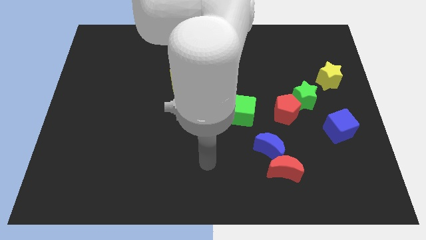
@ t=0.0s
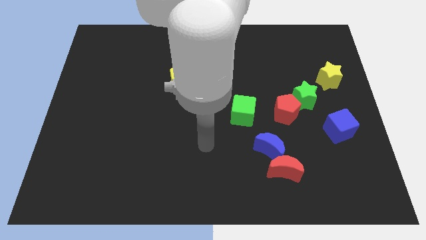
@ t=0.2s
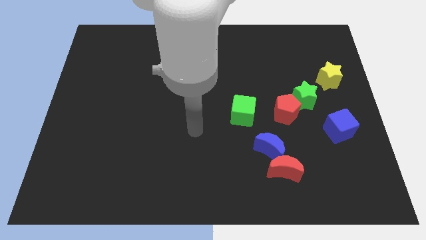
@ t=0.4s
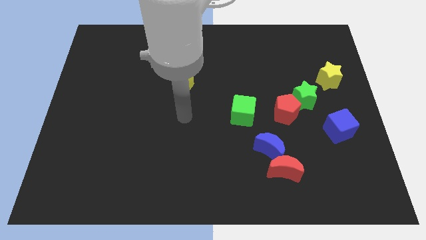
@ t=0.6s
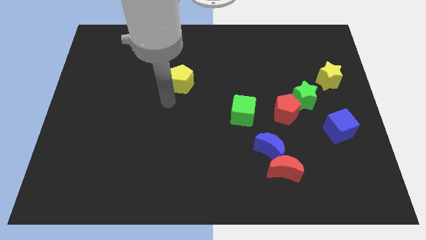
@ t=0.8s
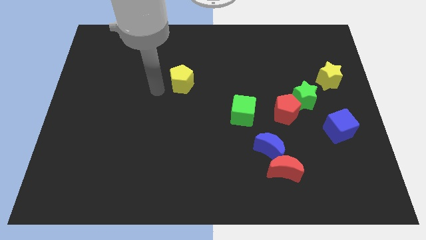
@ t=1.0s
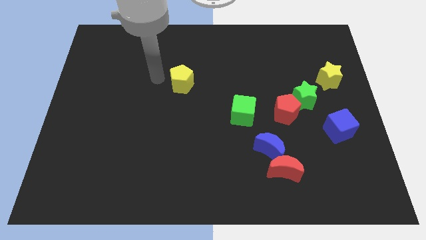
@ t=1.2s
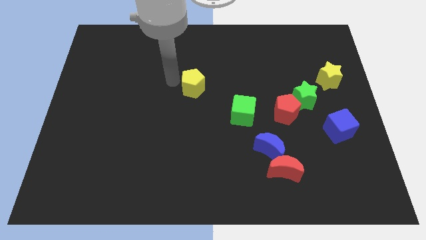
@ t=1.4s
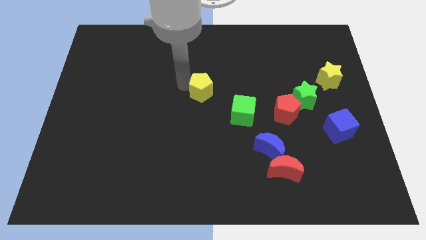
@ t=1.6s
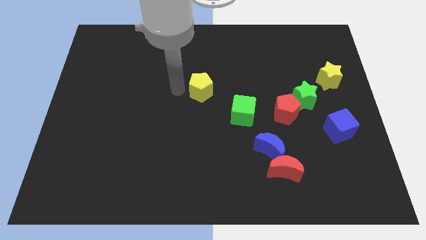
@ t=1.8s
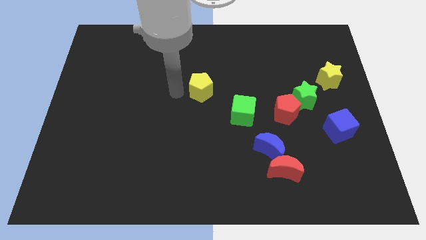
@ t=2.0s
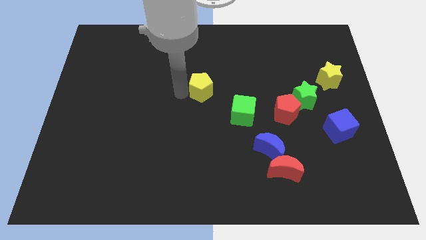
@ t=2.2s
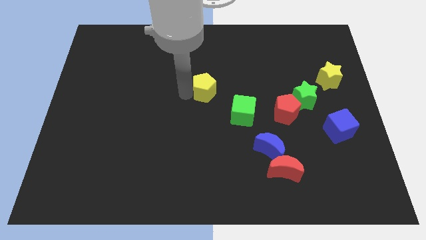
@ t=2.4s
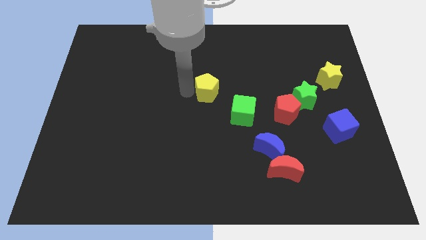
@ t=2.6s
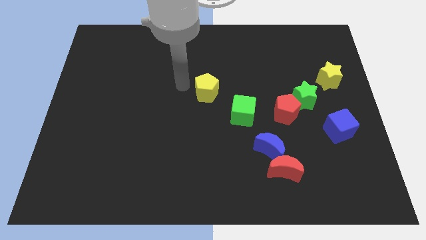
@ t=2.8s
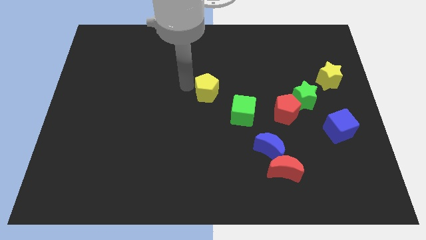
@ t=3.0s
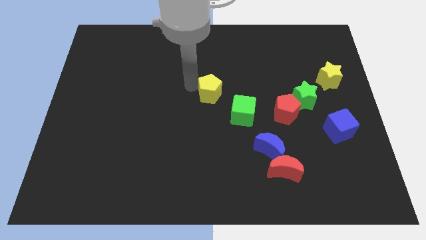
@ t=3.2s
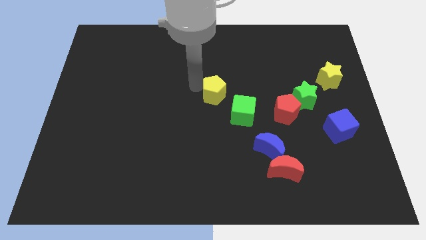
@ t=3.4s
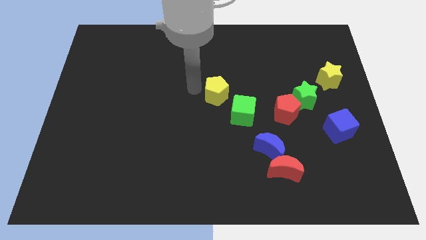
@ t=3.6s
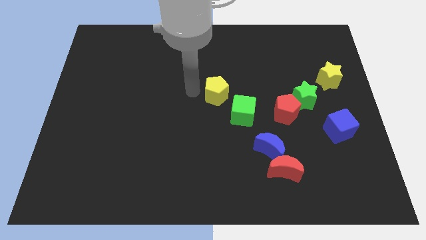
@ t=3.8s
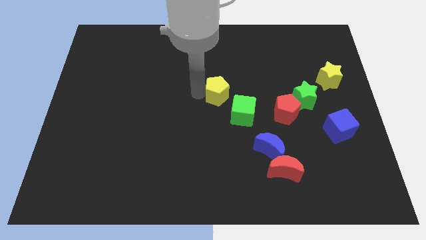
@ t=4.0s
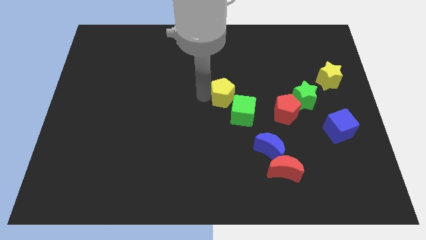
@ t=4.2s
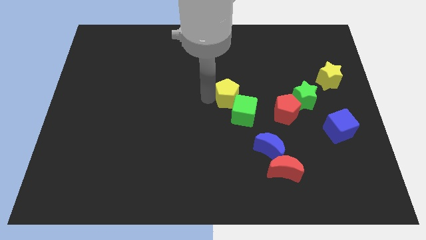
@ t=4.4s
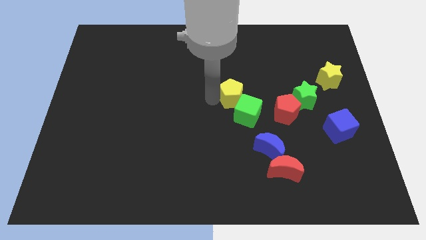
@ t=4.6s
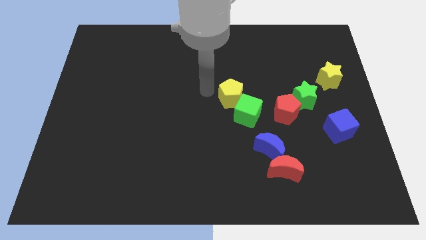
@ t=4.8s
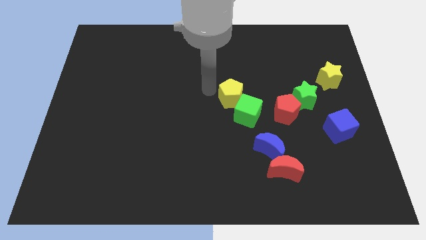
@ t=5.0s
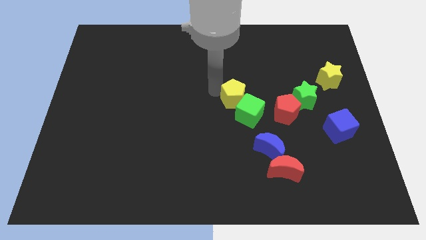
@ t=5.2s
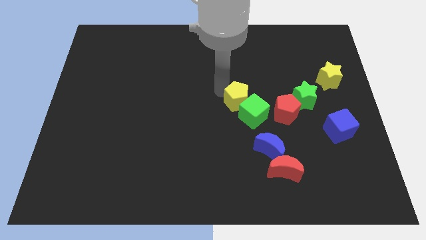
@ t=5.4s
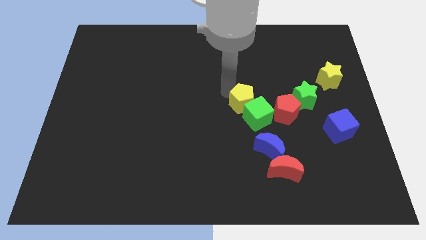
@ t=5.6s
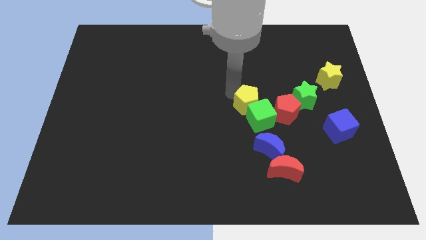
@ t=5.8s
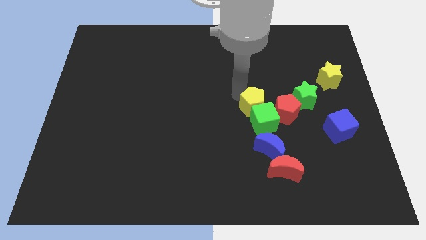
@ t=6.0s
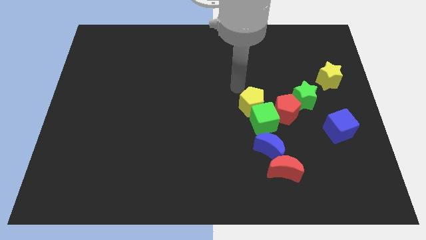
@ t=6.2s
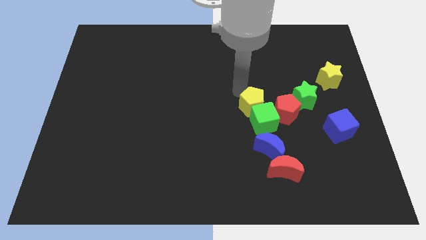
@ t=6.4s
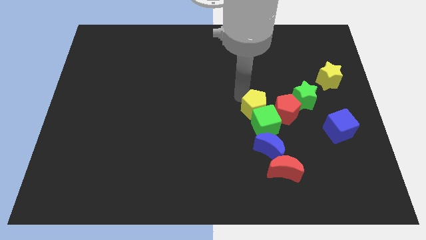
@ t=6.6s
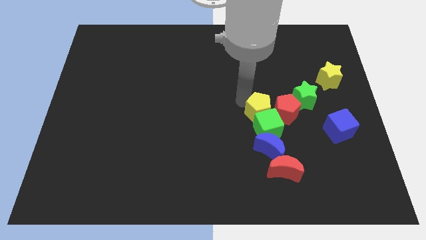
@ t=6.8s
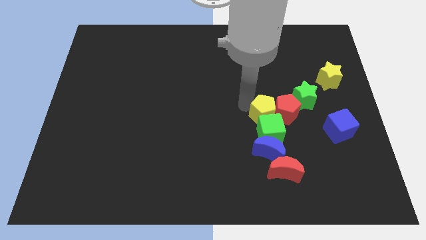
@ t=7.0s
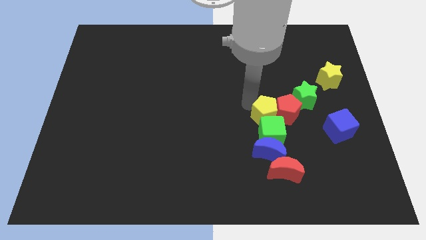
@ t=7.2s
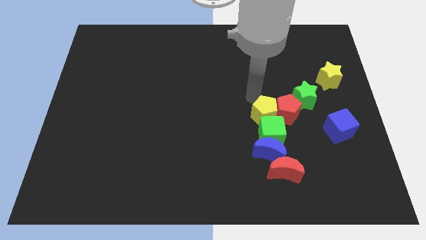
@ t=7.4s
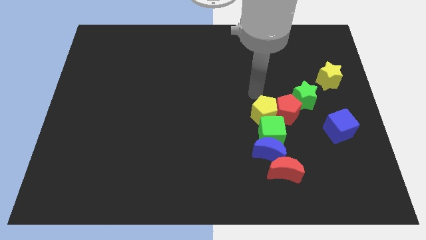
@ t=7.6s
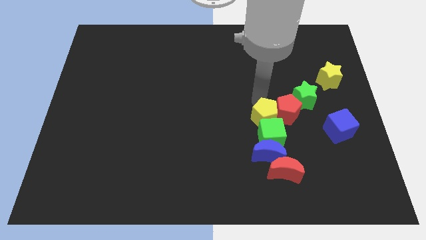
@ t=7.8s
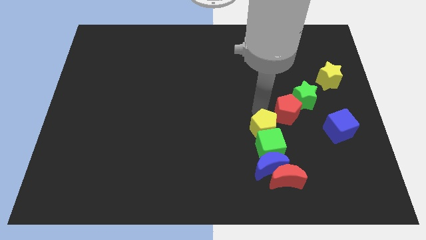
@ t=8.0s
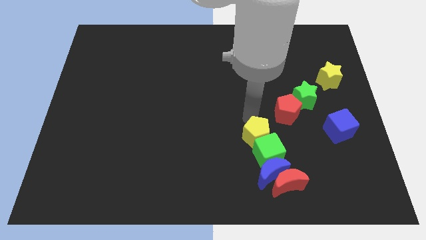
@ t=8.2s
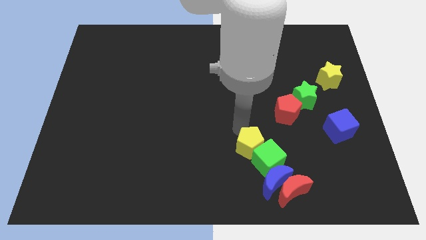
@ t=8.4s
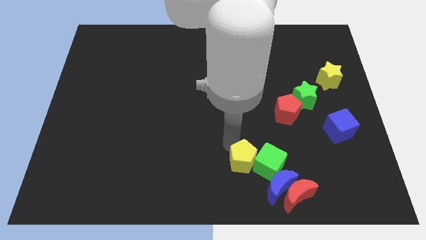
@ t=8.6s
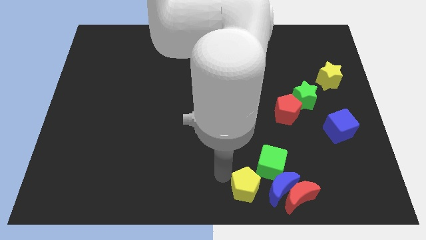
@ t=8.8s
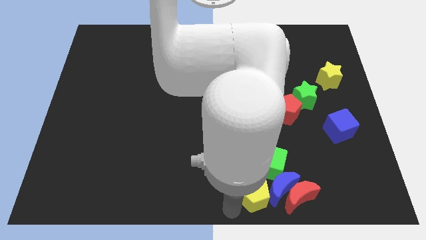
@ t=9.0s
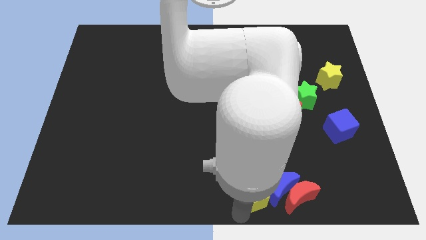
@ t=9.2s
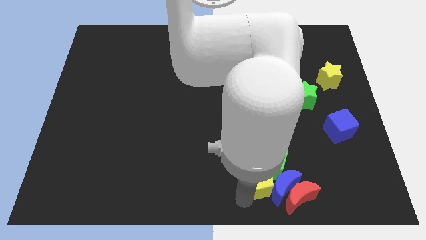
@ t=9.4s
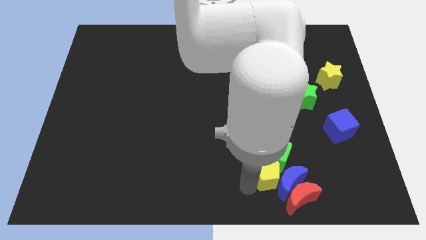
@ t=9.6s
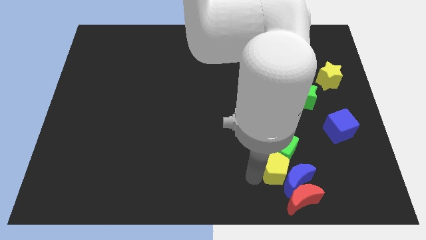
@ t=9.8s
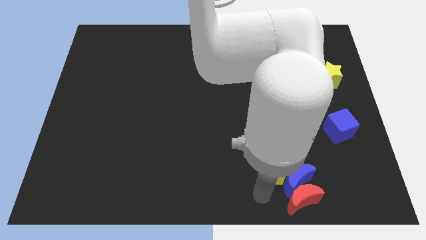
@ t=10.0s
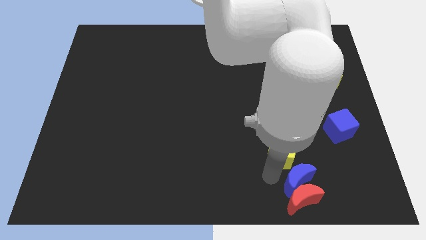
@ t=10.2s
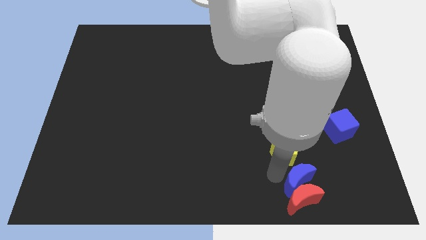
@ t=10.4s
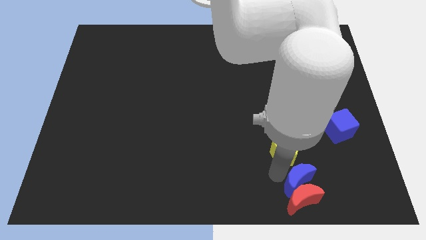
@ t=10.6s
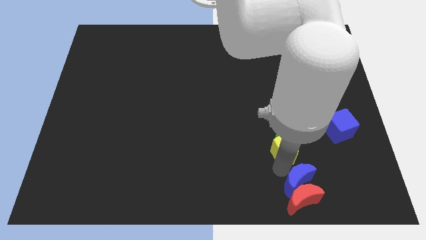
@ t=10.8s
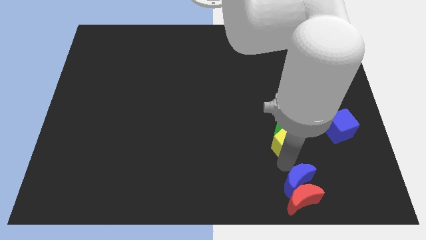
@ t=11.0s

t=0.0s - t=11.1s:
push the yellow pentagon to the left of the blue cube

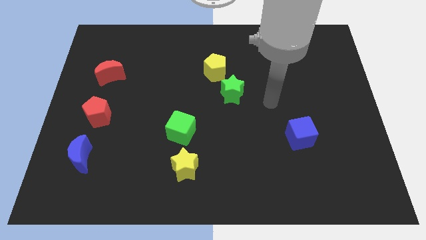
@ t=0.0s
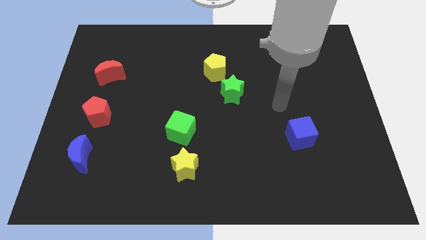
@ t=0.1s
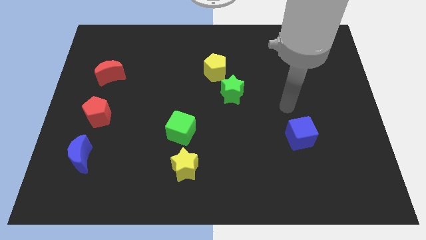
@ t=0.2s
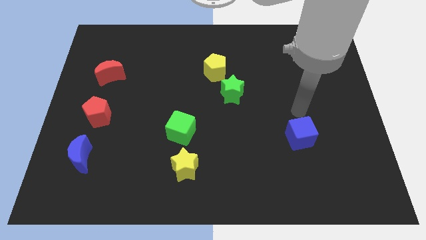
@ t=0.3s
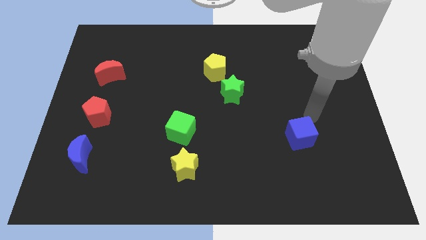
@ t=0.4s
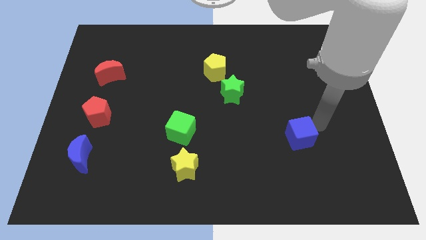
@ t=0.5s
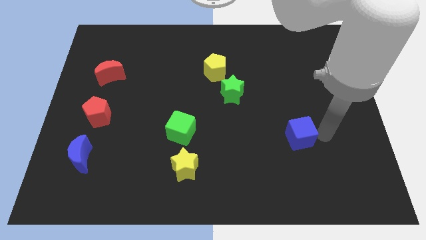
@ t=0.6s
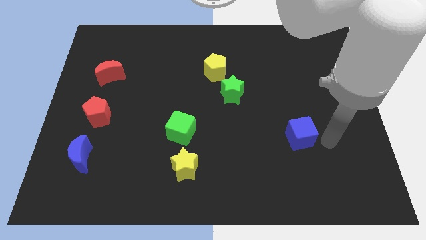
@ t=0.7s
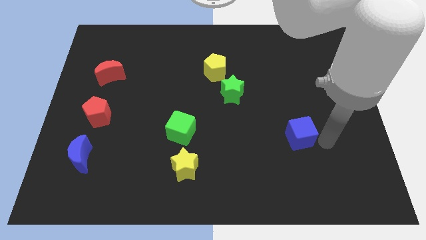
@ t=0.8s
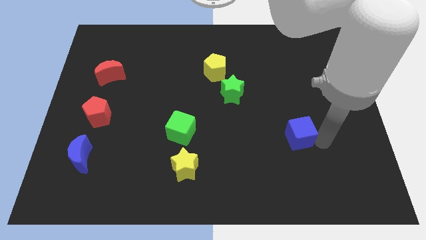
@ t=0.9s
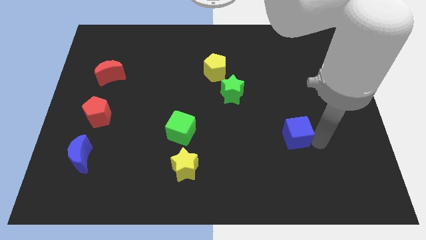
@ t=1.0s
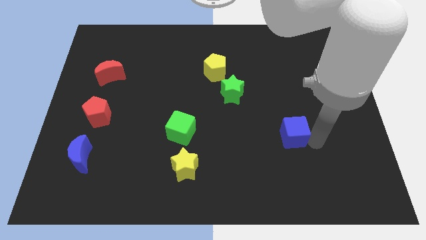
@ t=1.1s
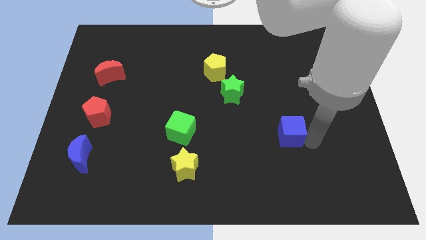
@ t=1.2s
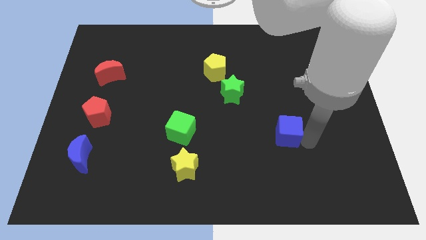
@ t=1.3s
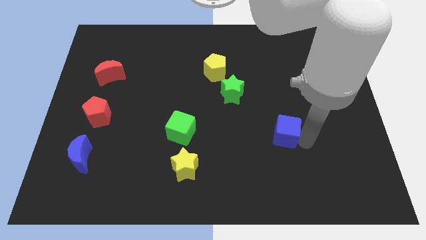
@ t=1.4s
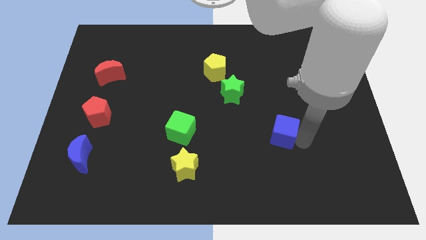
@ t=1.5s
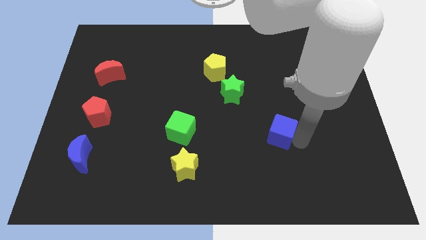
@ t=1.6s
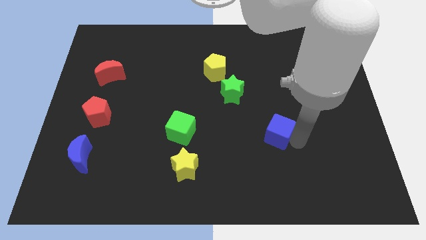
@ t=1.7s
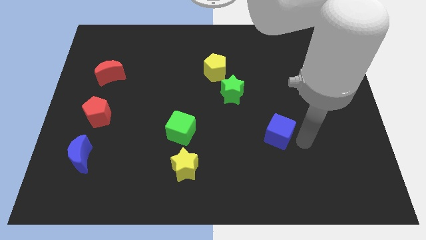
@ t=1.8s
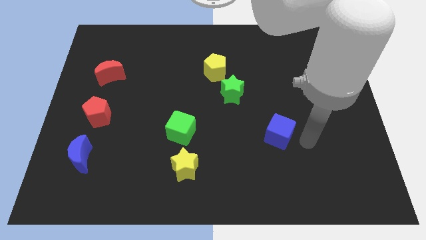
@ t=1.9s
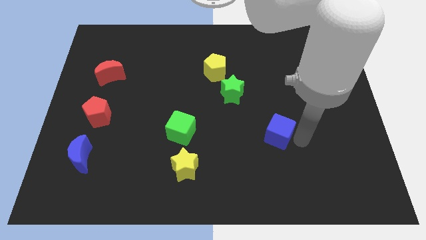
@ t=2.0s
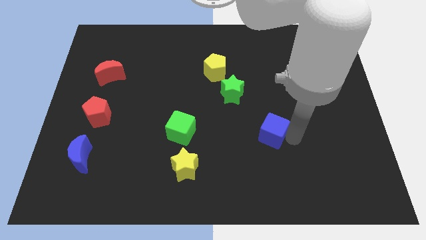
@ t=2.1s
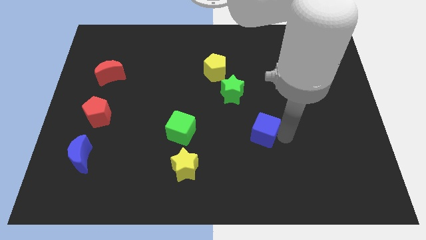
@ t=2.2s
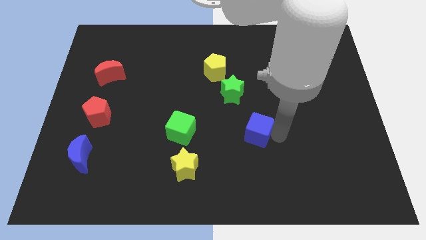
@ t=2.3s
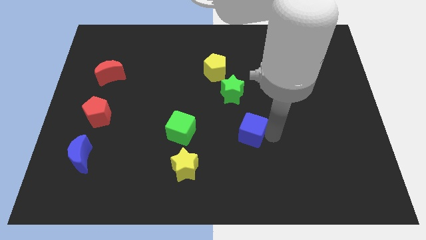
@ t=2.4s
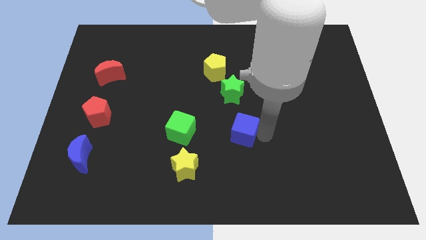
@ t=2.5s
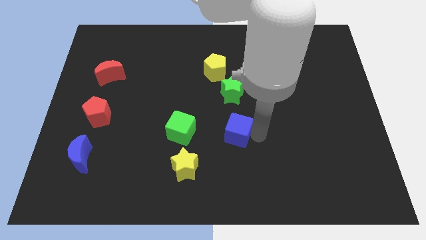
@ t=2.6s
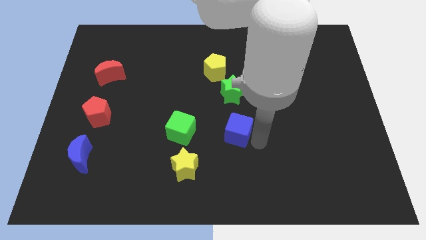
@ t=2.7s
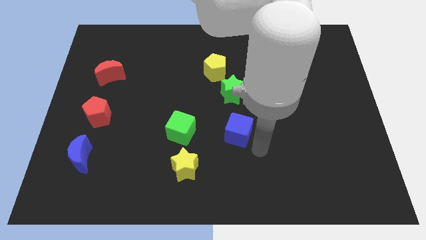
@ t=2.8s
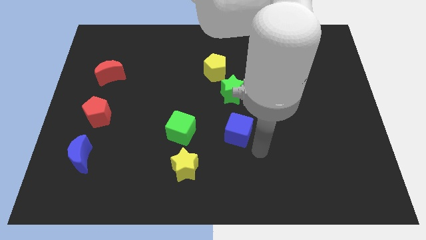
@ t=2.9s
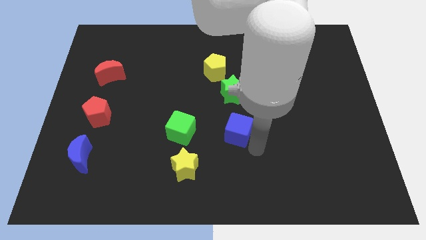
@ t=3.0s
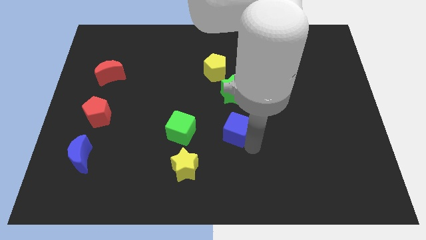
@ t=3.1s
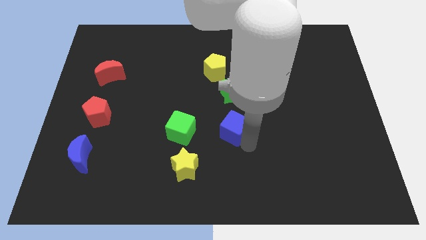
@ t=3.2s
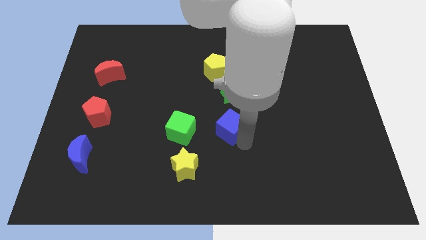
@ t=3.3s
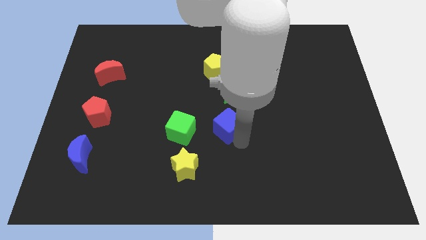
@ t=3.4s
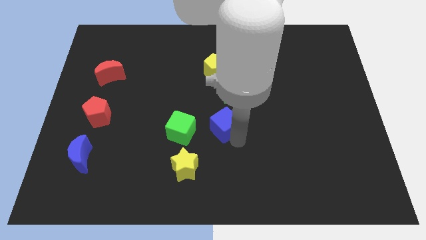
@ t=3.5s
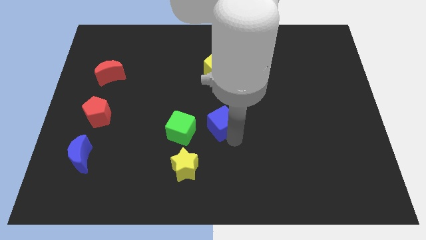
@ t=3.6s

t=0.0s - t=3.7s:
slide the blue cube to the bottom left of the green star
